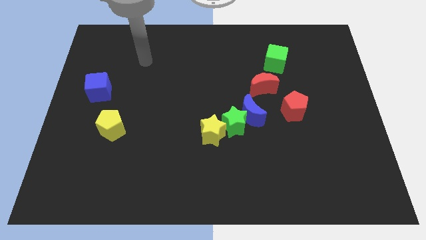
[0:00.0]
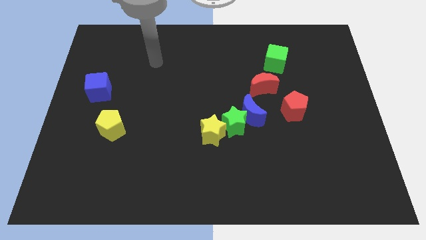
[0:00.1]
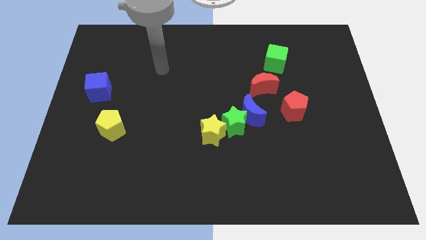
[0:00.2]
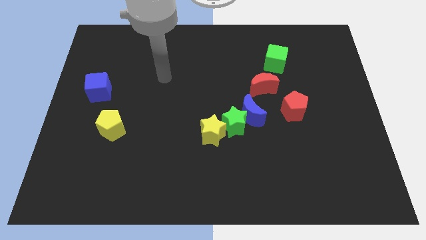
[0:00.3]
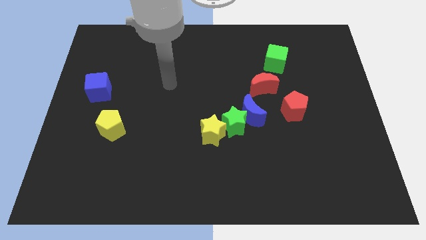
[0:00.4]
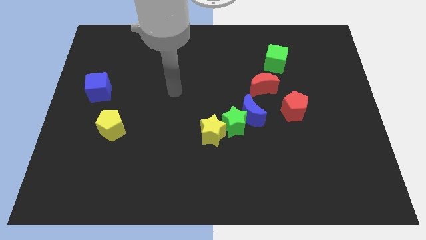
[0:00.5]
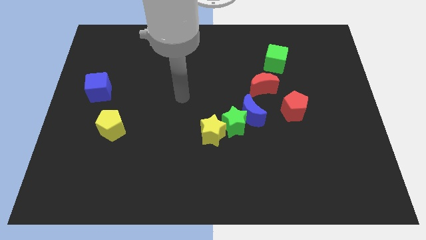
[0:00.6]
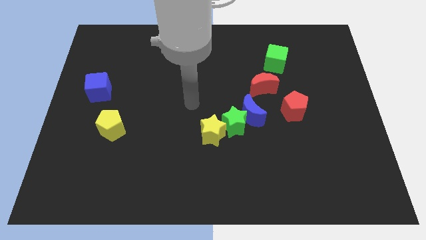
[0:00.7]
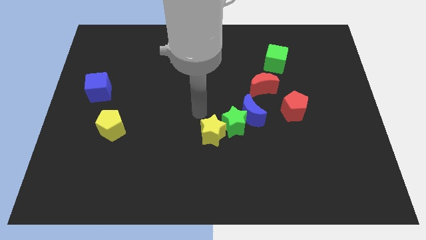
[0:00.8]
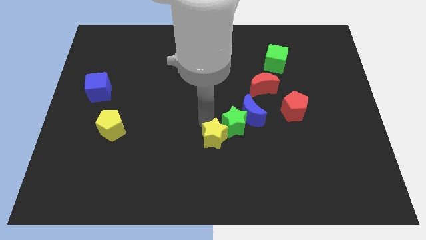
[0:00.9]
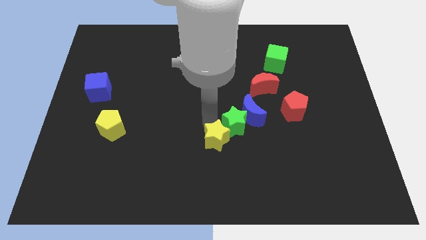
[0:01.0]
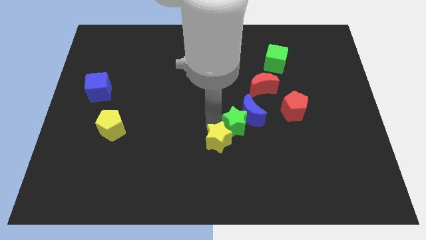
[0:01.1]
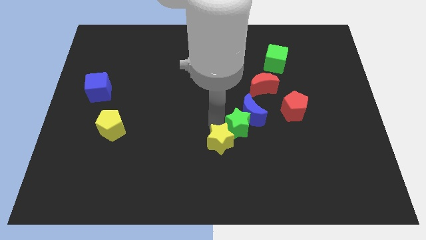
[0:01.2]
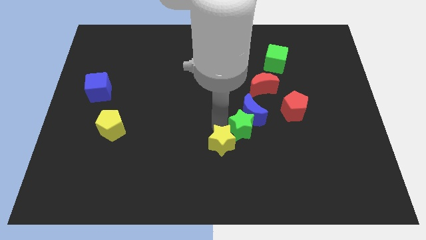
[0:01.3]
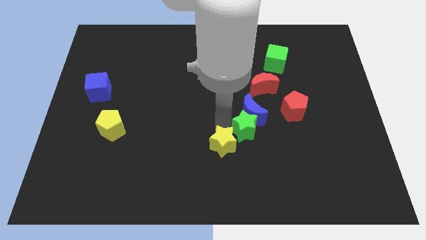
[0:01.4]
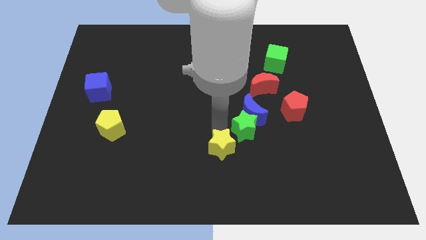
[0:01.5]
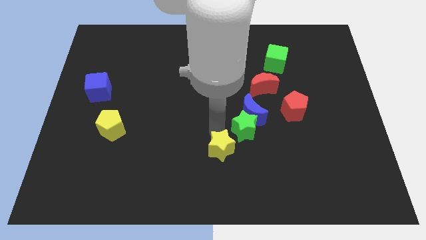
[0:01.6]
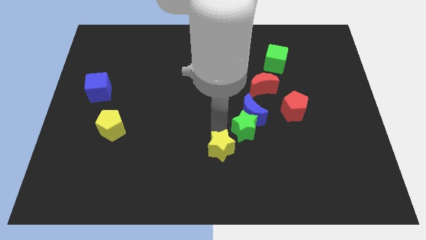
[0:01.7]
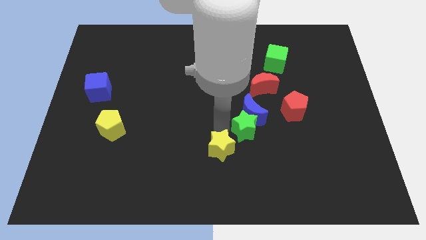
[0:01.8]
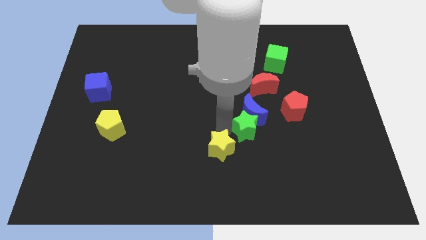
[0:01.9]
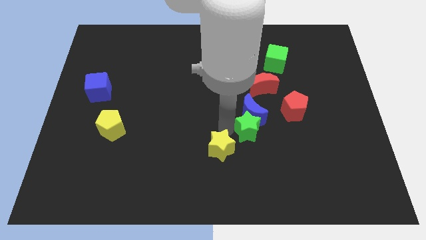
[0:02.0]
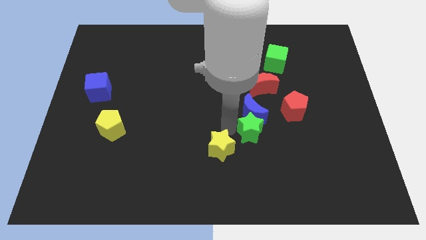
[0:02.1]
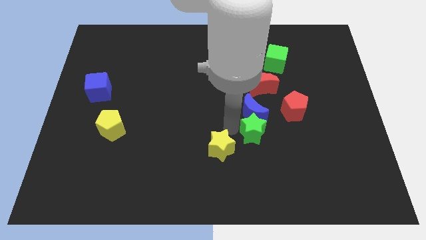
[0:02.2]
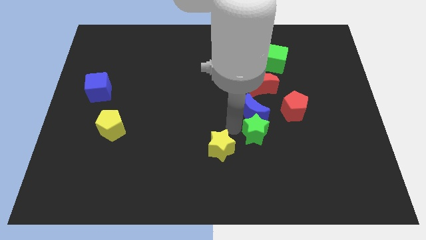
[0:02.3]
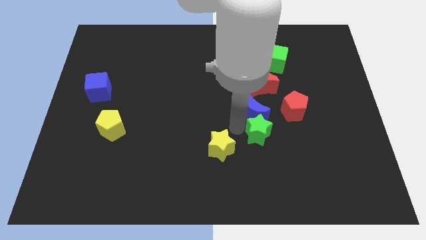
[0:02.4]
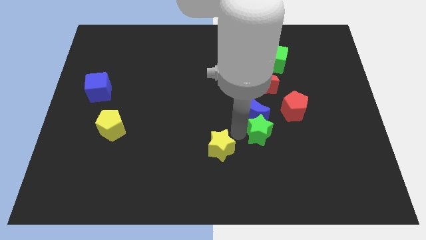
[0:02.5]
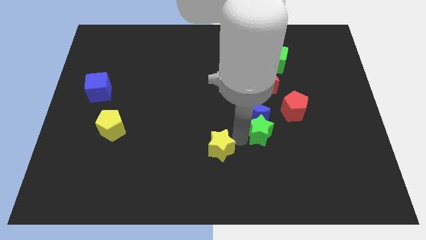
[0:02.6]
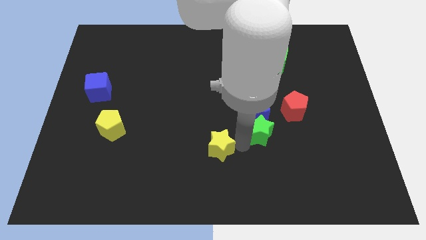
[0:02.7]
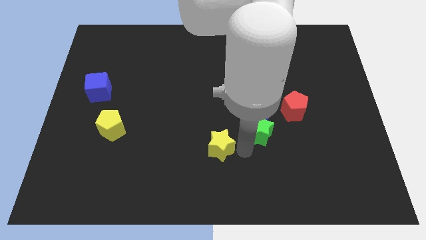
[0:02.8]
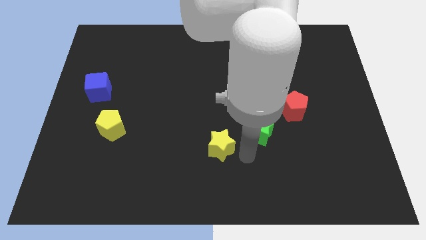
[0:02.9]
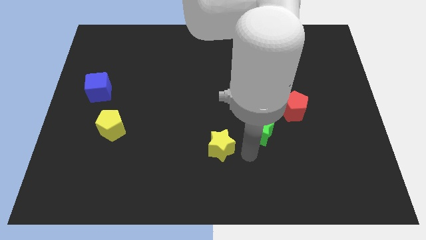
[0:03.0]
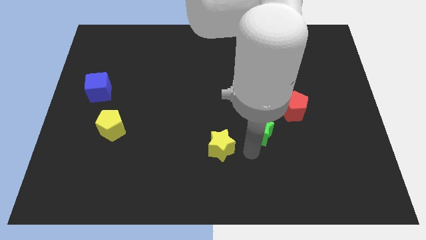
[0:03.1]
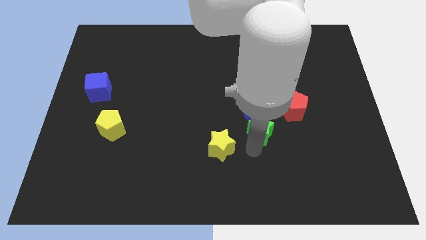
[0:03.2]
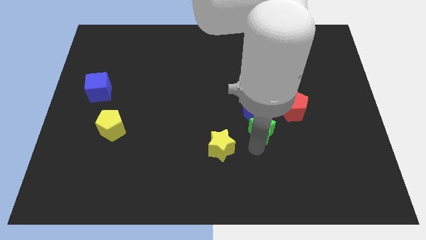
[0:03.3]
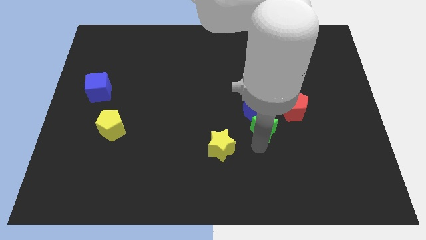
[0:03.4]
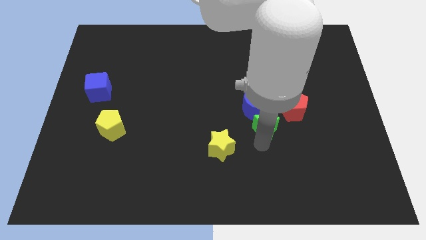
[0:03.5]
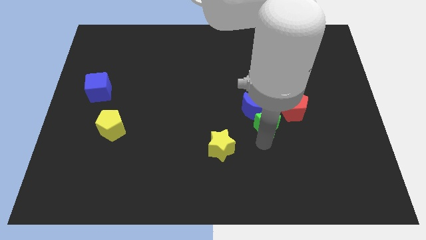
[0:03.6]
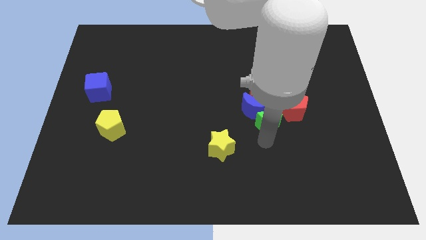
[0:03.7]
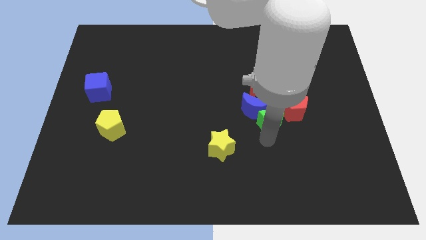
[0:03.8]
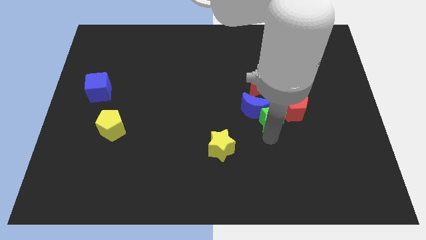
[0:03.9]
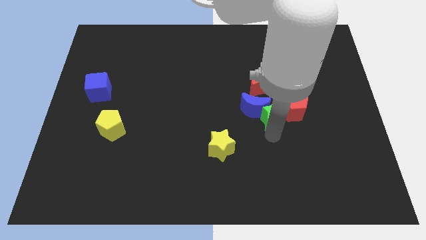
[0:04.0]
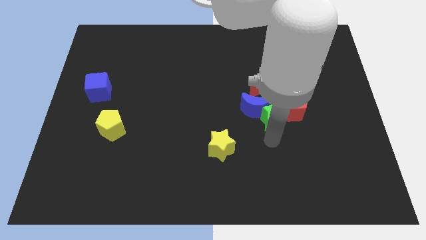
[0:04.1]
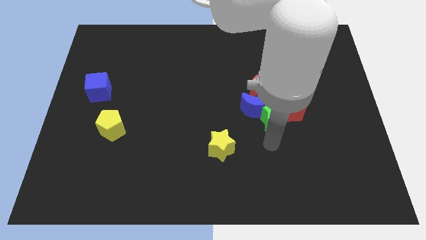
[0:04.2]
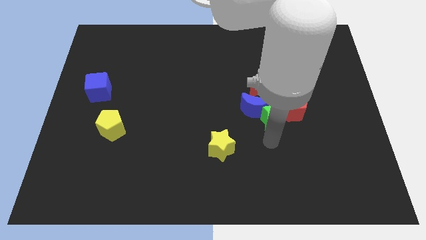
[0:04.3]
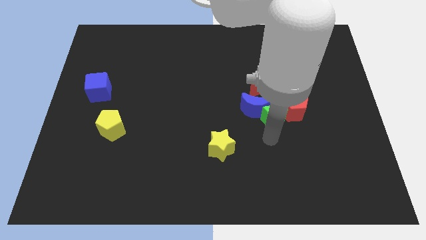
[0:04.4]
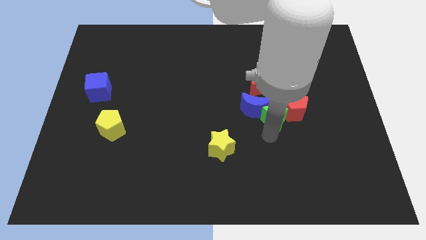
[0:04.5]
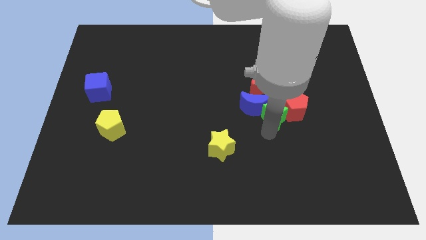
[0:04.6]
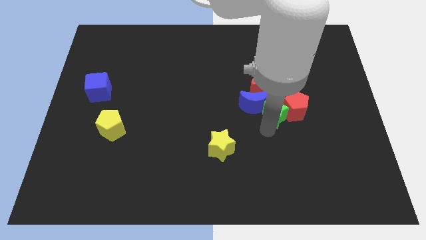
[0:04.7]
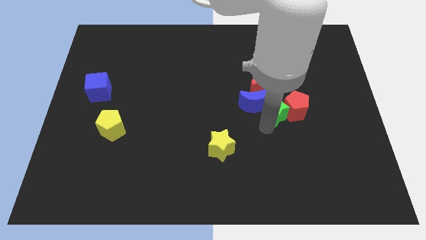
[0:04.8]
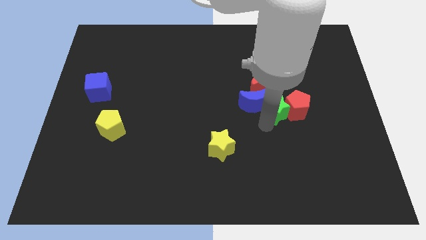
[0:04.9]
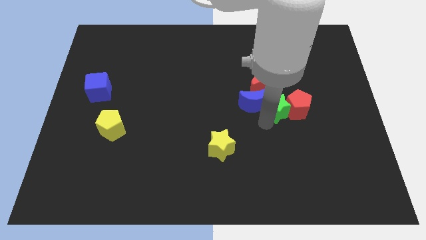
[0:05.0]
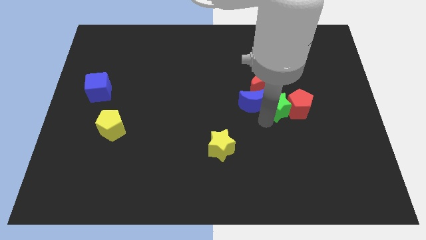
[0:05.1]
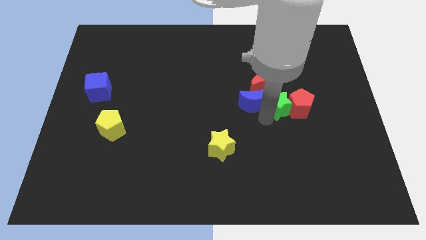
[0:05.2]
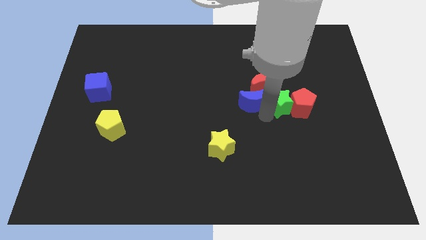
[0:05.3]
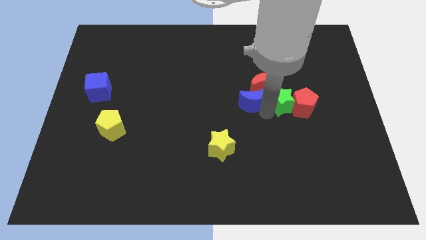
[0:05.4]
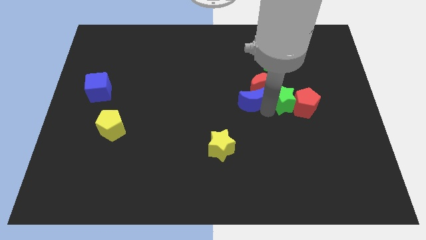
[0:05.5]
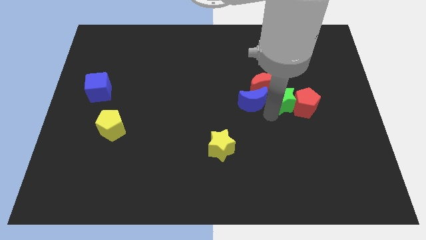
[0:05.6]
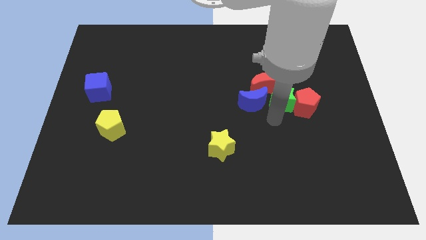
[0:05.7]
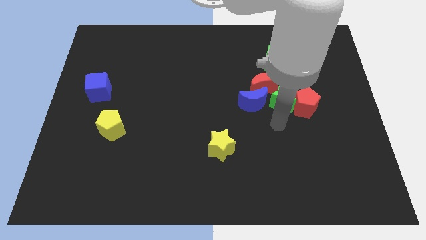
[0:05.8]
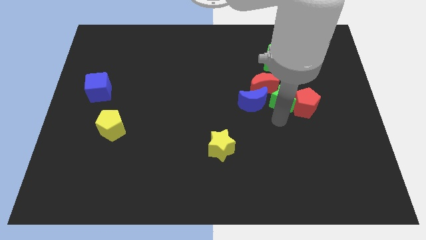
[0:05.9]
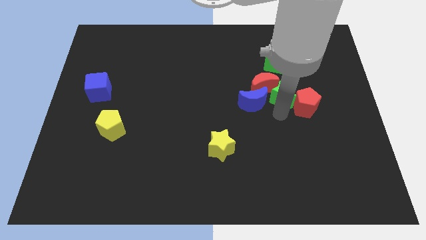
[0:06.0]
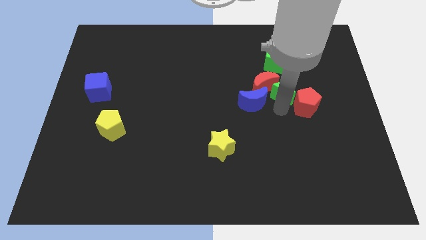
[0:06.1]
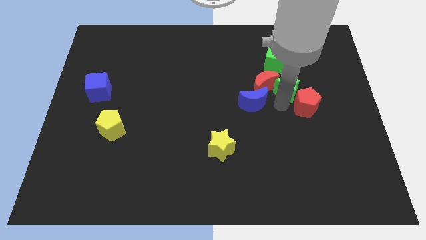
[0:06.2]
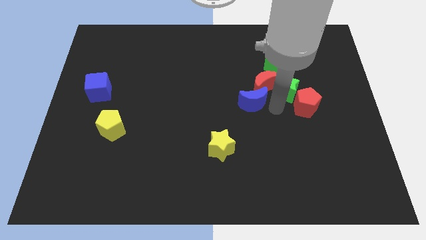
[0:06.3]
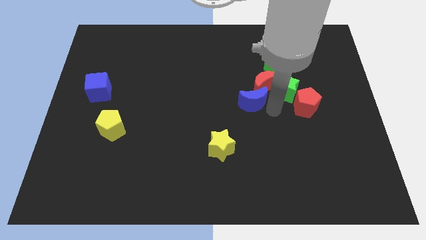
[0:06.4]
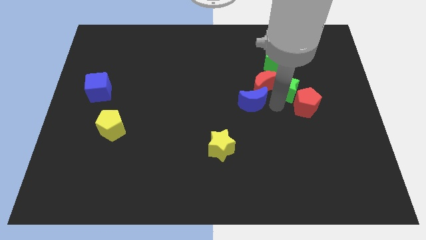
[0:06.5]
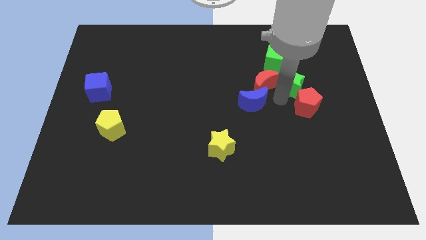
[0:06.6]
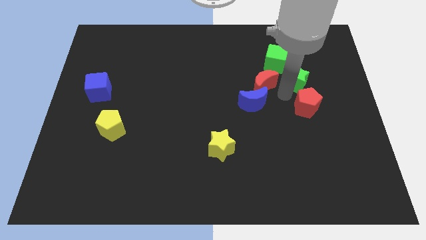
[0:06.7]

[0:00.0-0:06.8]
push the green star up and then right

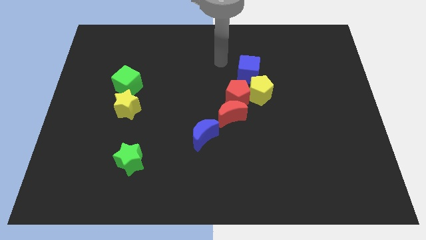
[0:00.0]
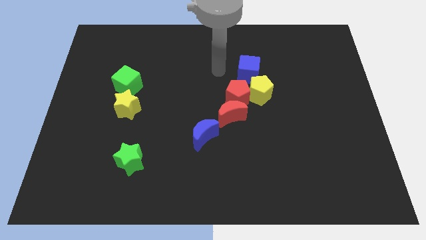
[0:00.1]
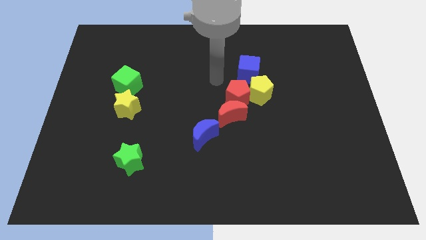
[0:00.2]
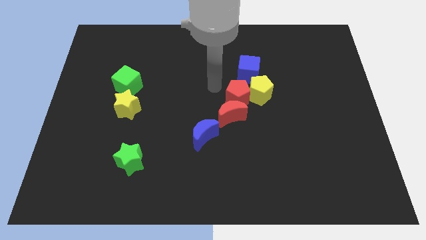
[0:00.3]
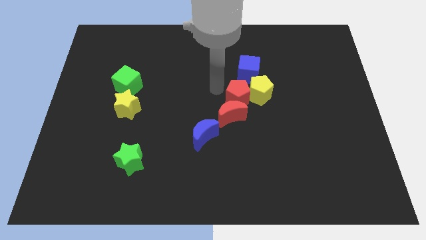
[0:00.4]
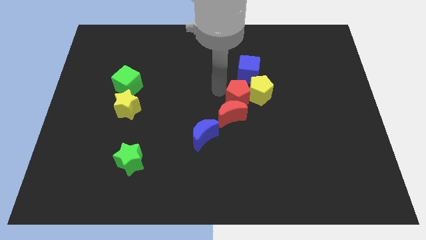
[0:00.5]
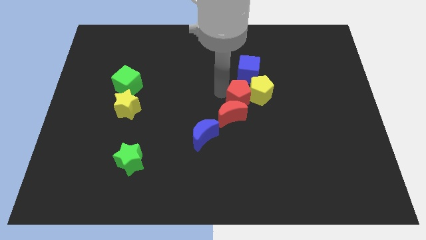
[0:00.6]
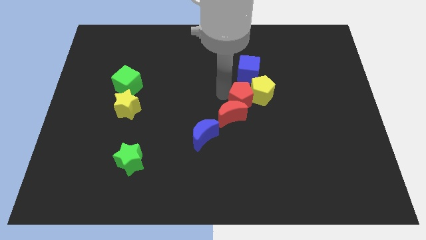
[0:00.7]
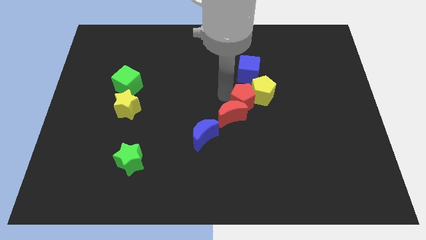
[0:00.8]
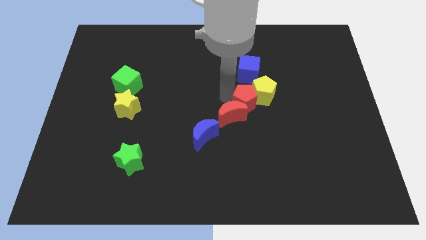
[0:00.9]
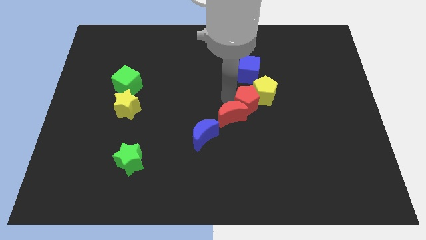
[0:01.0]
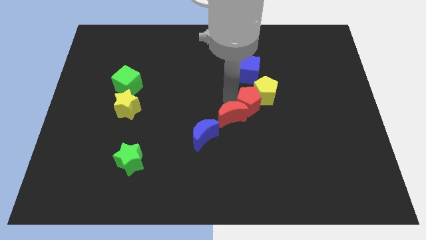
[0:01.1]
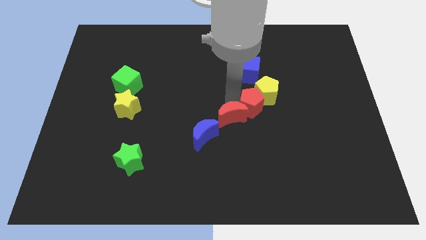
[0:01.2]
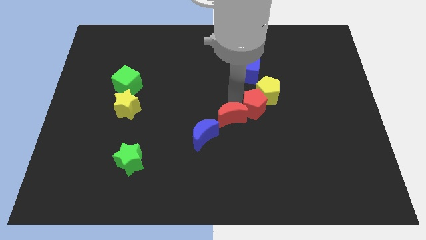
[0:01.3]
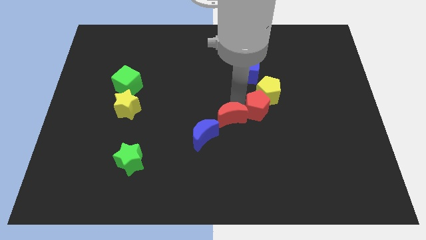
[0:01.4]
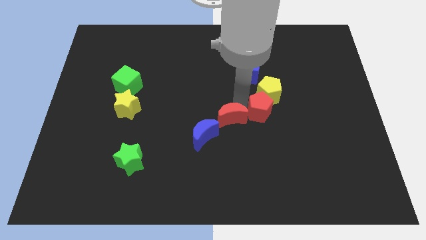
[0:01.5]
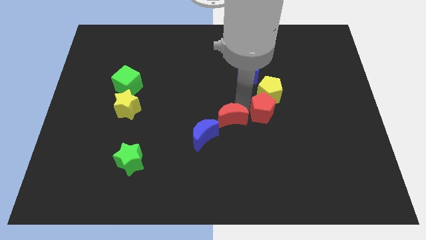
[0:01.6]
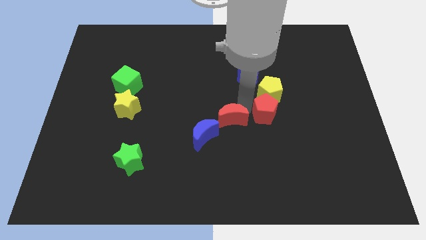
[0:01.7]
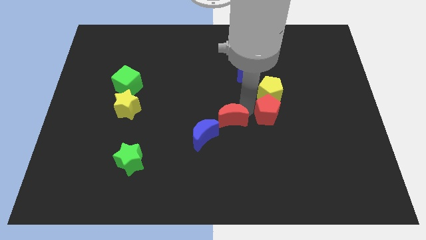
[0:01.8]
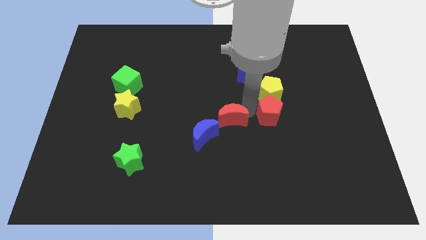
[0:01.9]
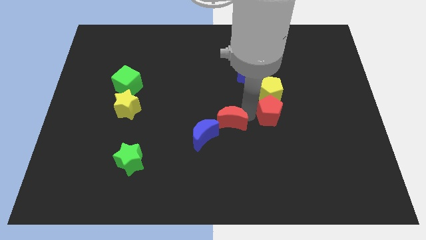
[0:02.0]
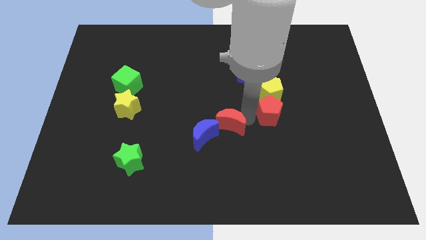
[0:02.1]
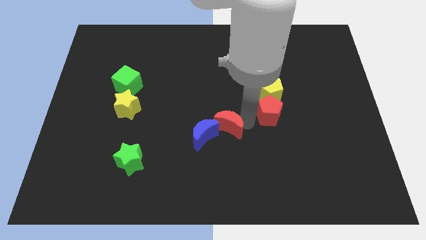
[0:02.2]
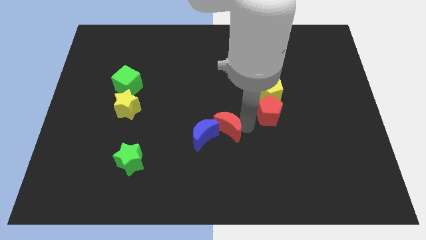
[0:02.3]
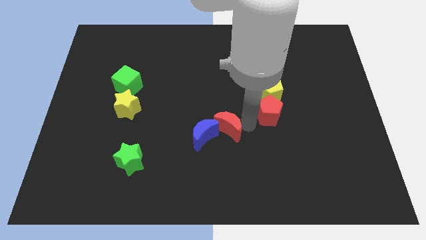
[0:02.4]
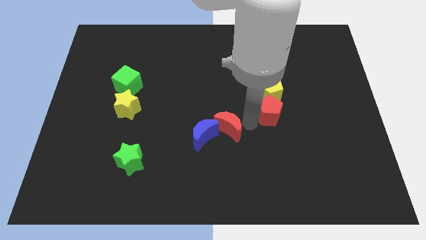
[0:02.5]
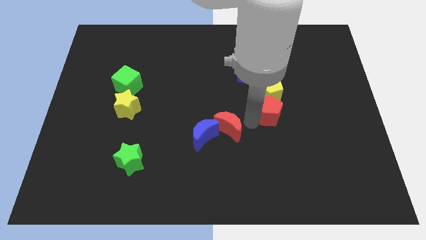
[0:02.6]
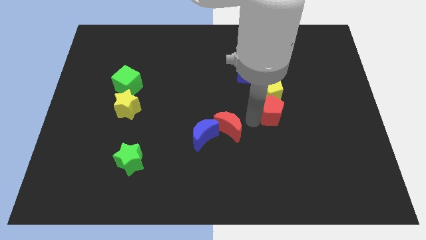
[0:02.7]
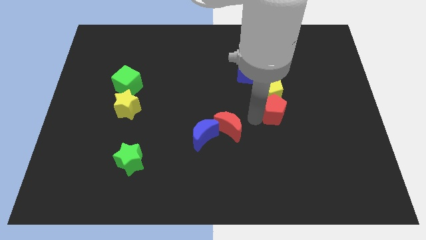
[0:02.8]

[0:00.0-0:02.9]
slightly slide the red pentagon to the right
